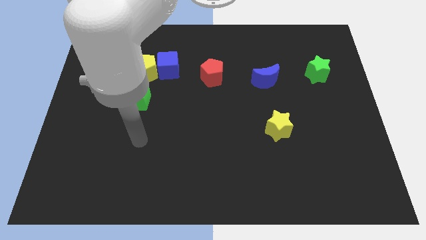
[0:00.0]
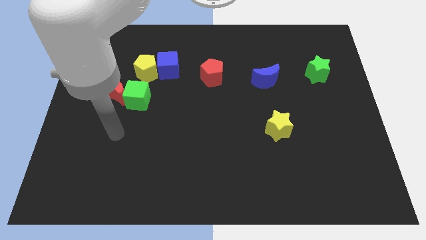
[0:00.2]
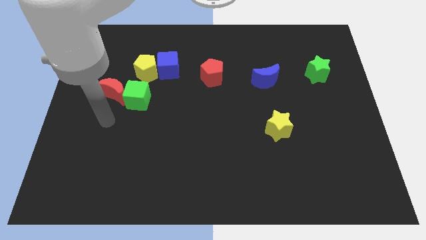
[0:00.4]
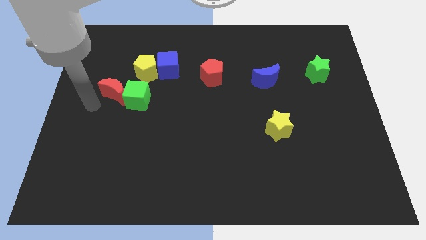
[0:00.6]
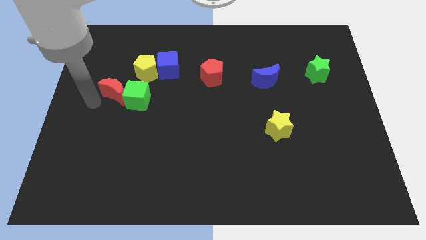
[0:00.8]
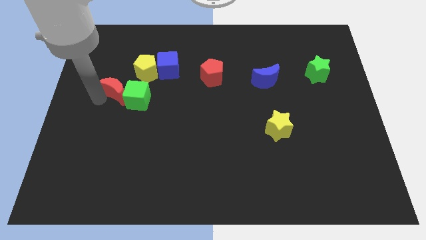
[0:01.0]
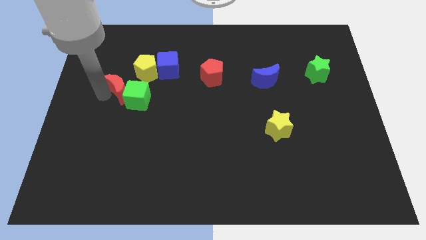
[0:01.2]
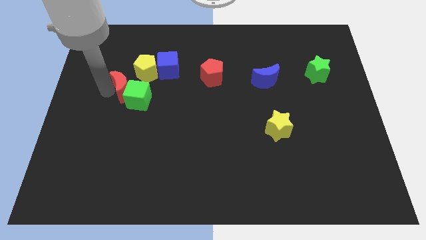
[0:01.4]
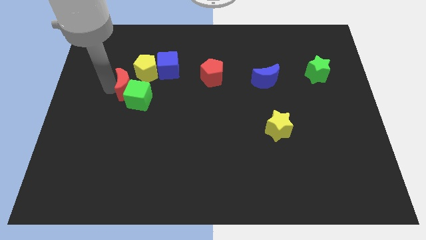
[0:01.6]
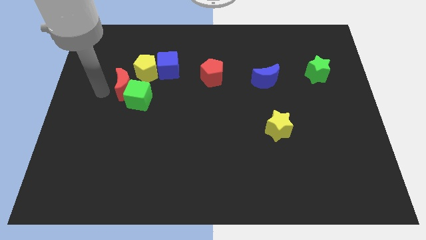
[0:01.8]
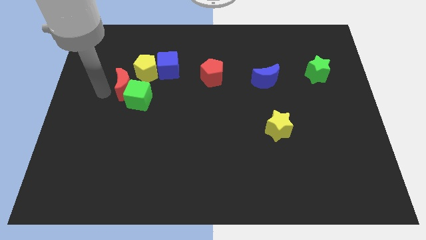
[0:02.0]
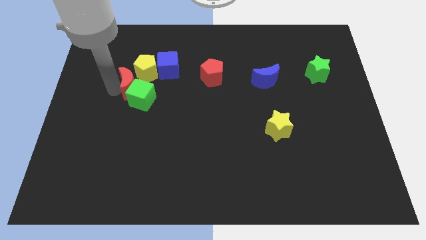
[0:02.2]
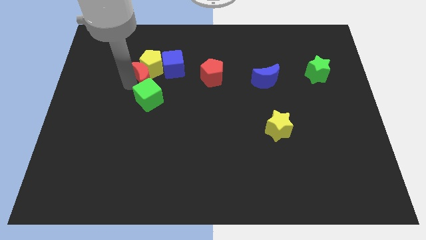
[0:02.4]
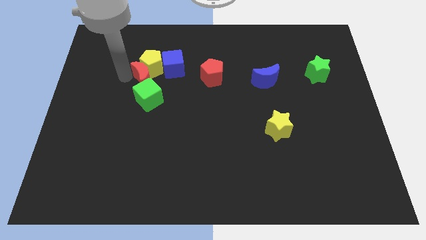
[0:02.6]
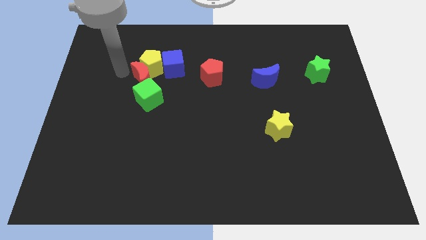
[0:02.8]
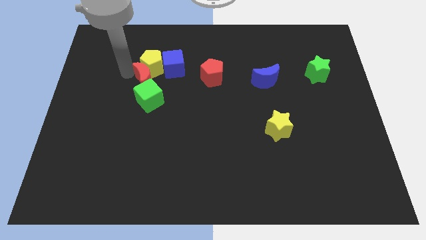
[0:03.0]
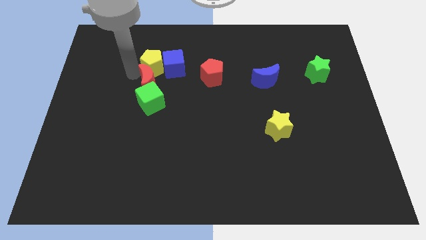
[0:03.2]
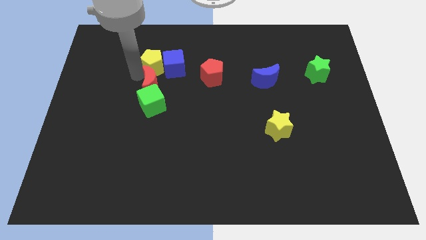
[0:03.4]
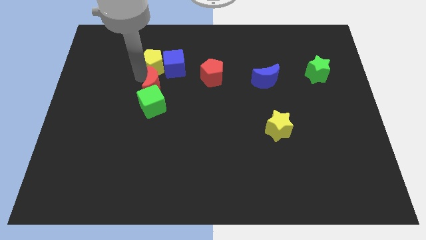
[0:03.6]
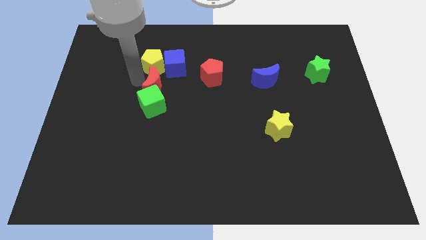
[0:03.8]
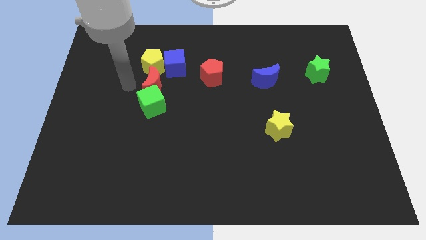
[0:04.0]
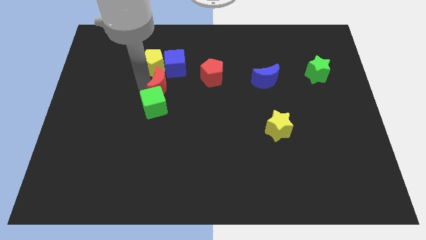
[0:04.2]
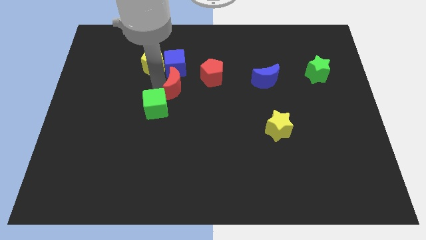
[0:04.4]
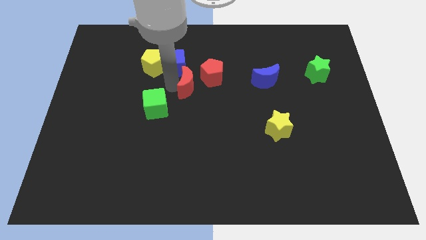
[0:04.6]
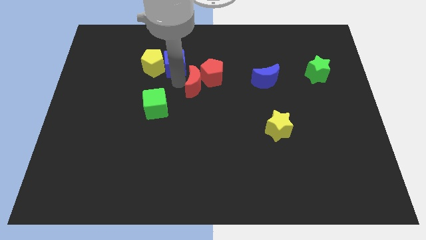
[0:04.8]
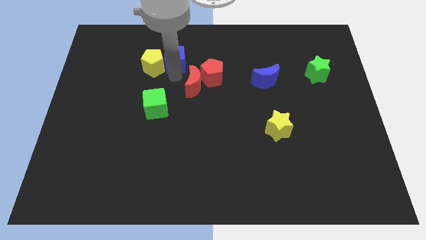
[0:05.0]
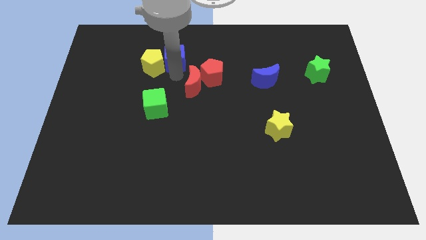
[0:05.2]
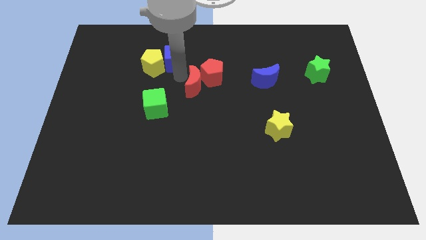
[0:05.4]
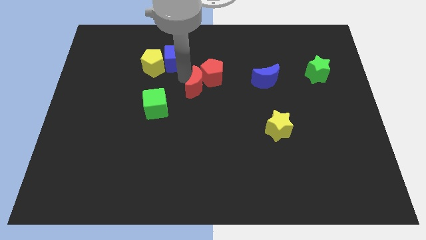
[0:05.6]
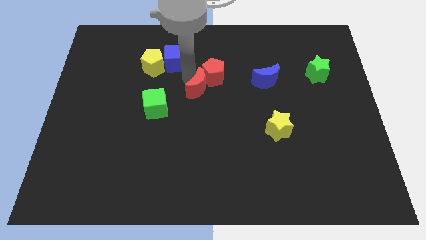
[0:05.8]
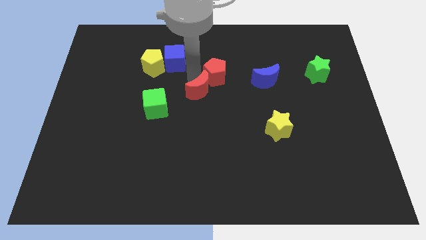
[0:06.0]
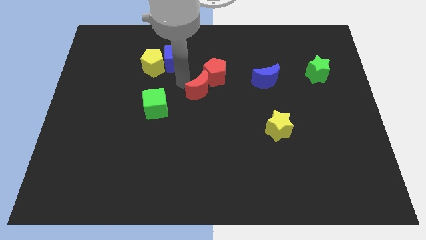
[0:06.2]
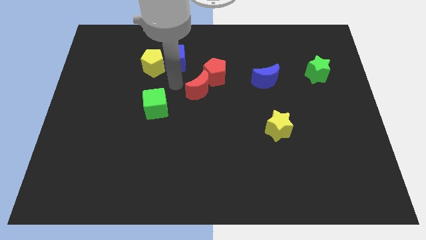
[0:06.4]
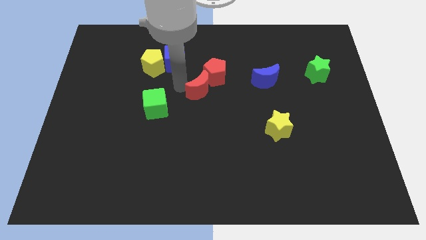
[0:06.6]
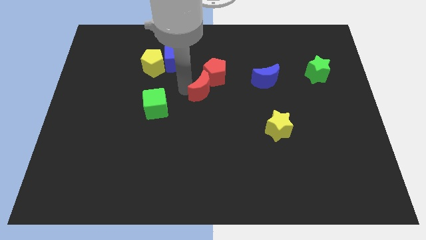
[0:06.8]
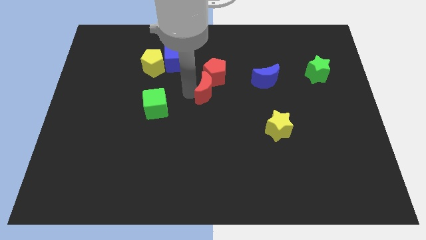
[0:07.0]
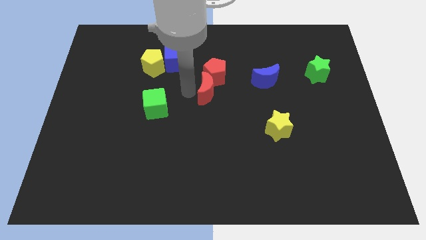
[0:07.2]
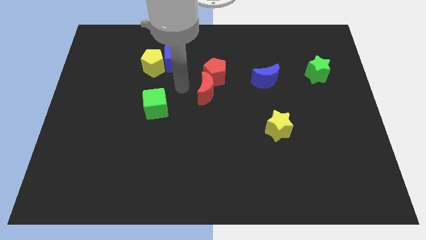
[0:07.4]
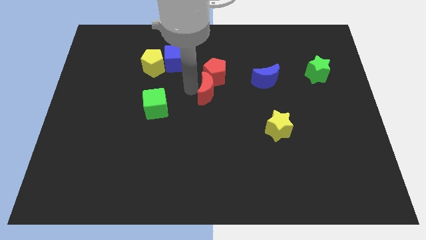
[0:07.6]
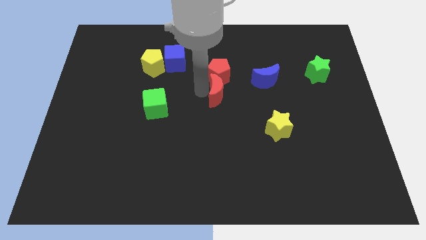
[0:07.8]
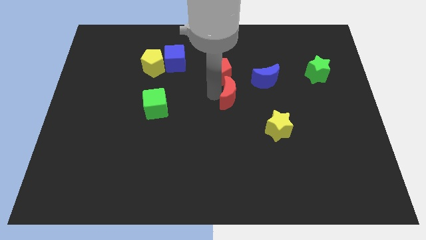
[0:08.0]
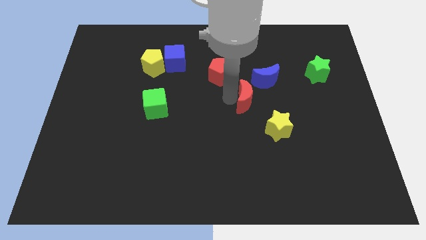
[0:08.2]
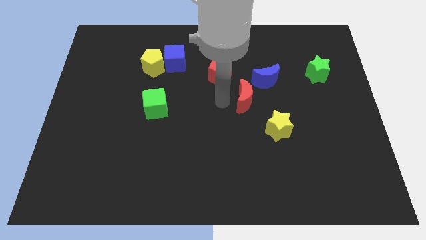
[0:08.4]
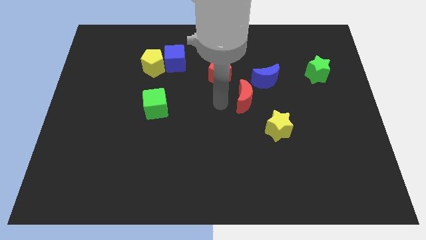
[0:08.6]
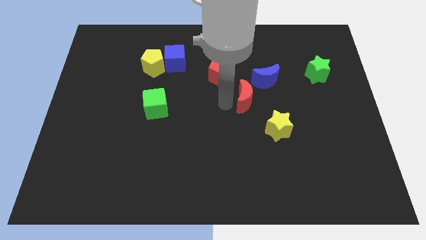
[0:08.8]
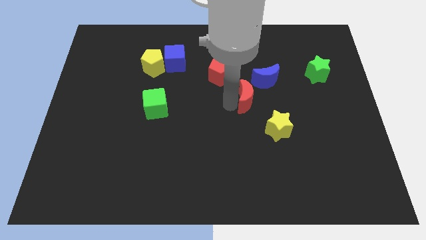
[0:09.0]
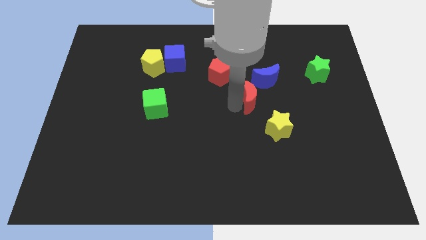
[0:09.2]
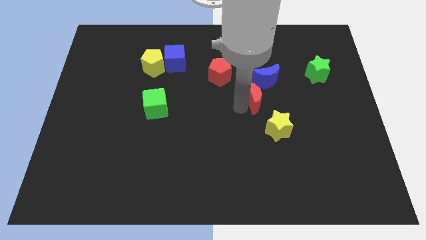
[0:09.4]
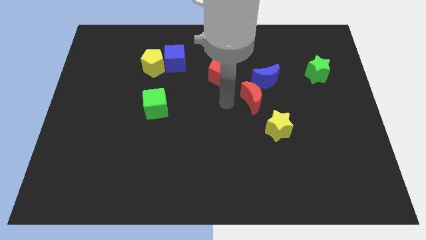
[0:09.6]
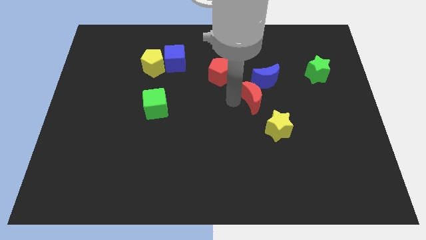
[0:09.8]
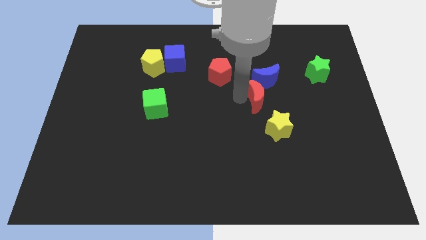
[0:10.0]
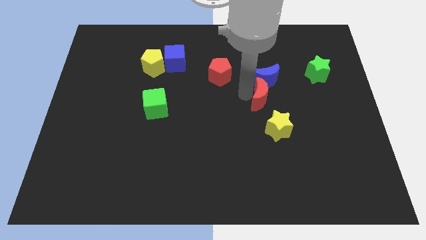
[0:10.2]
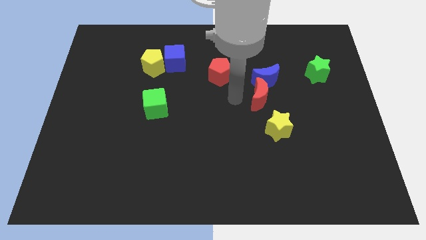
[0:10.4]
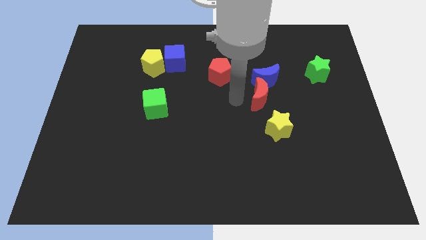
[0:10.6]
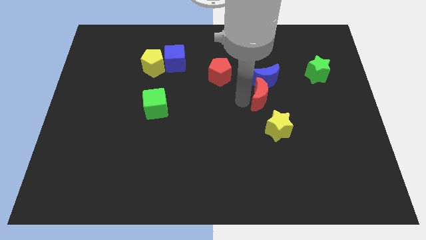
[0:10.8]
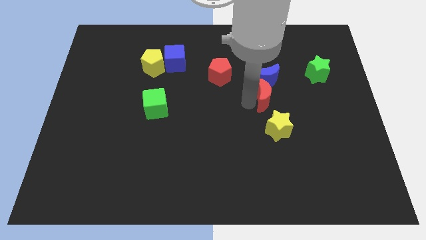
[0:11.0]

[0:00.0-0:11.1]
put the red moon diagonally down and to the right of the blue moon
